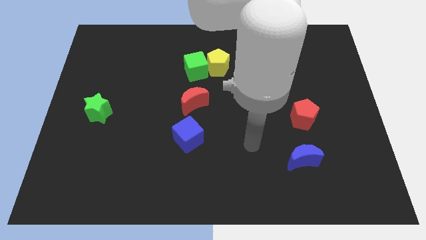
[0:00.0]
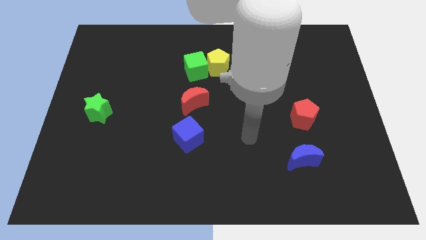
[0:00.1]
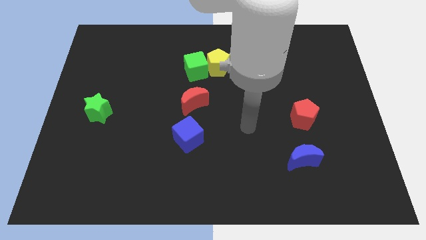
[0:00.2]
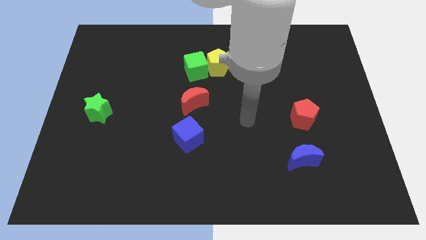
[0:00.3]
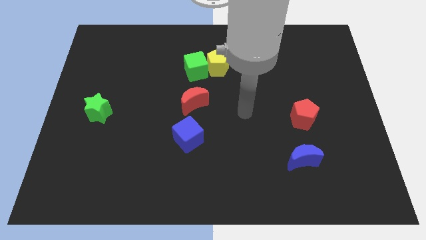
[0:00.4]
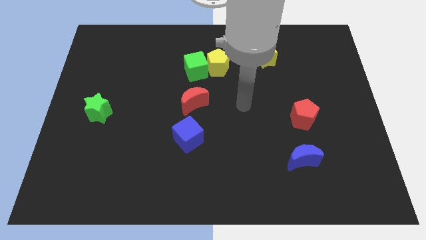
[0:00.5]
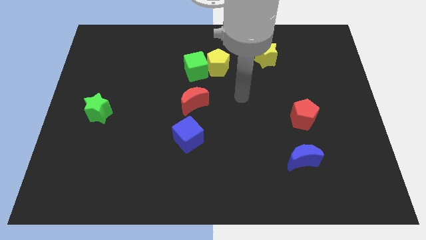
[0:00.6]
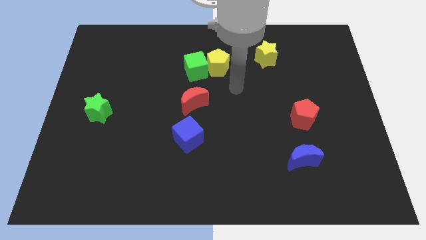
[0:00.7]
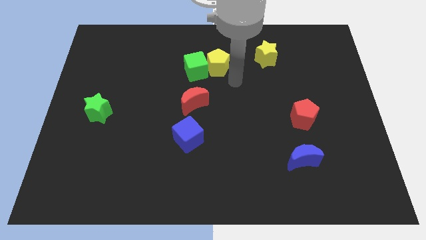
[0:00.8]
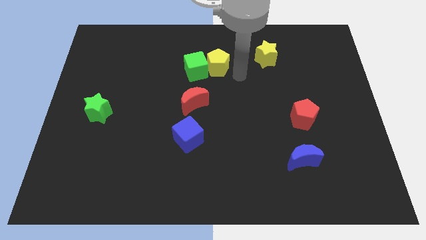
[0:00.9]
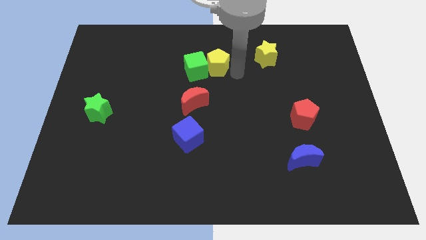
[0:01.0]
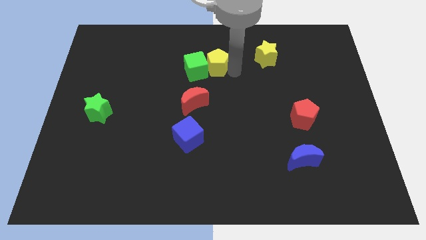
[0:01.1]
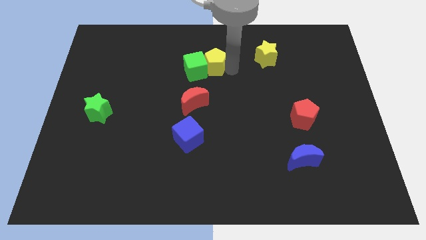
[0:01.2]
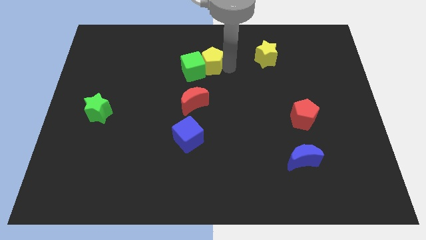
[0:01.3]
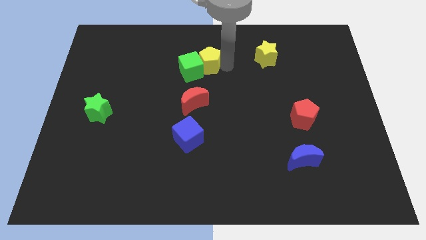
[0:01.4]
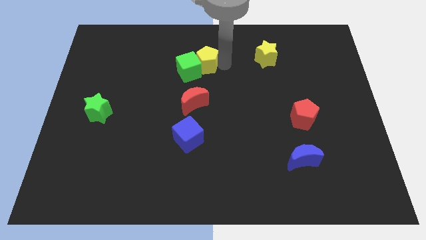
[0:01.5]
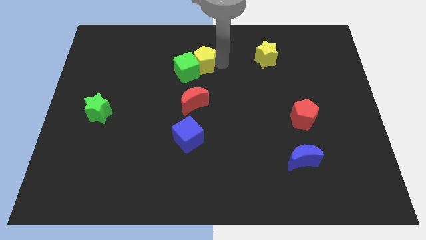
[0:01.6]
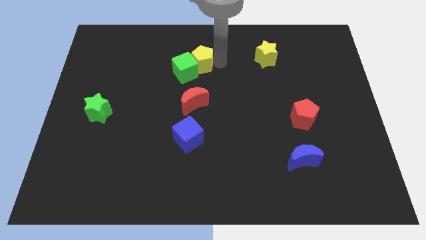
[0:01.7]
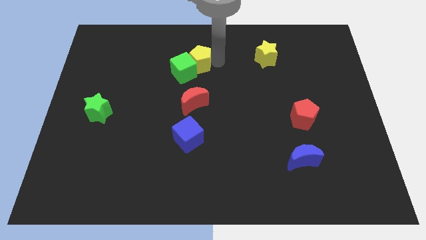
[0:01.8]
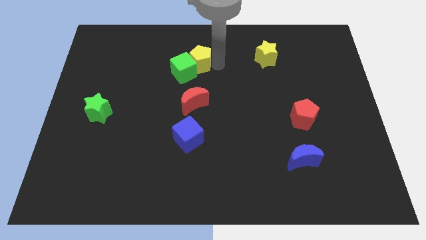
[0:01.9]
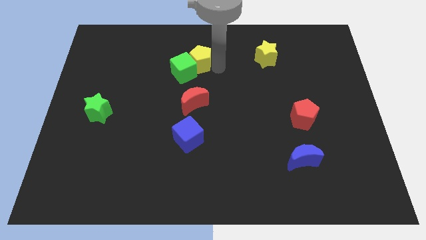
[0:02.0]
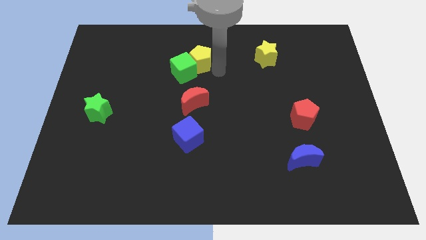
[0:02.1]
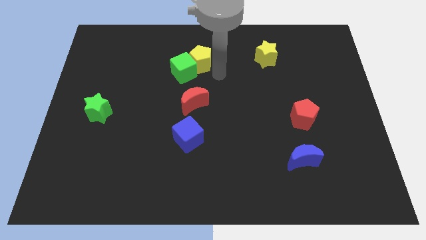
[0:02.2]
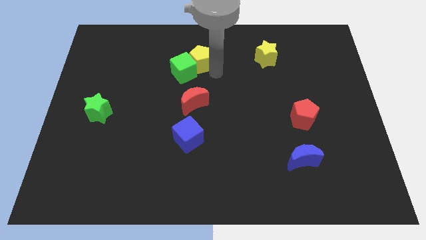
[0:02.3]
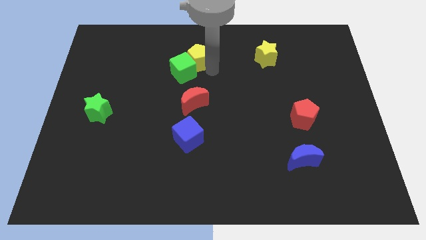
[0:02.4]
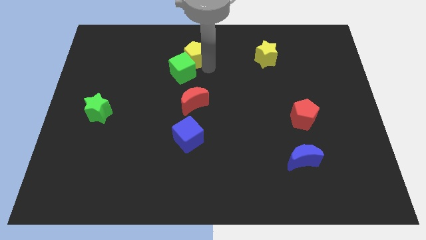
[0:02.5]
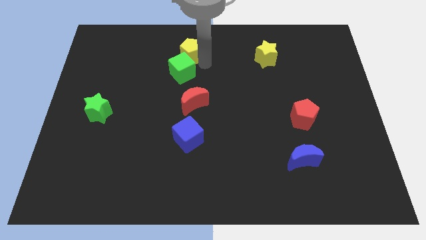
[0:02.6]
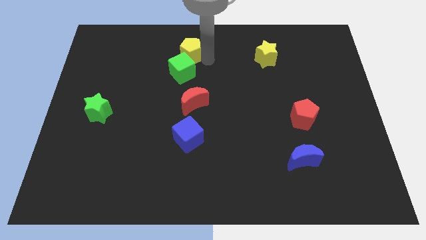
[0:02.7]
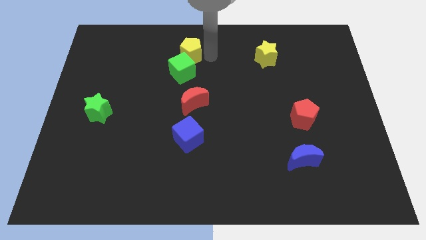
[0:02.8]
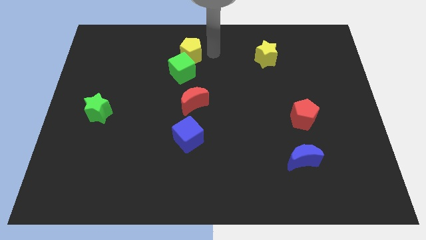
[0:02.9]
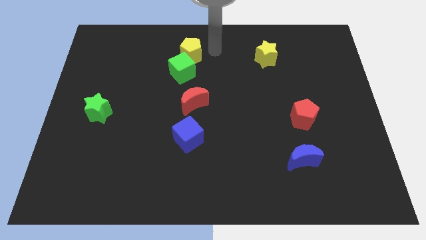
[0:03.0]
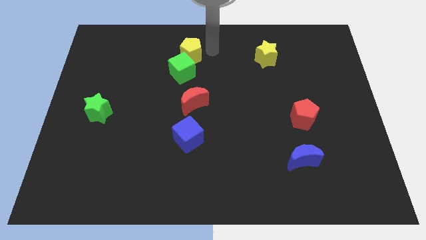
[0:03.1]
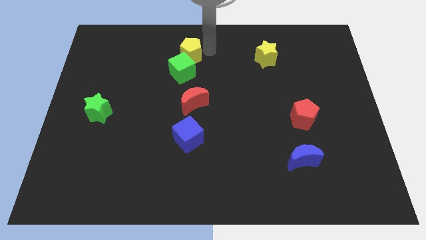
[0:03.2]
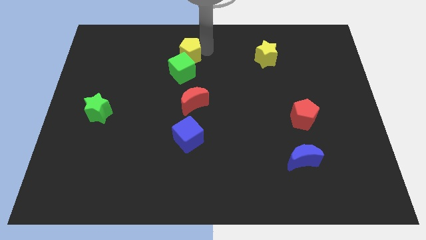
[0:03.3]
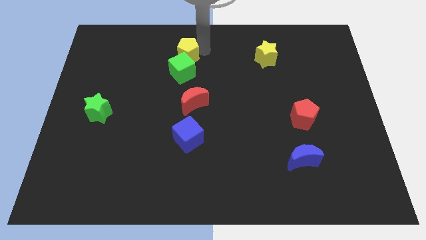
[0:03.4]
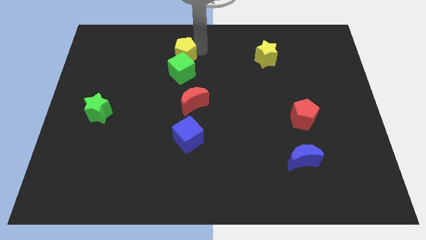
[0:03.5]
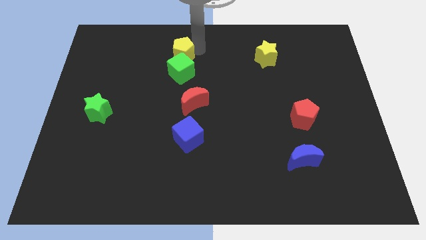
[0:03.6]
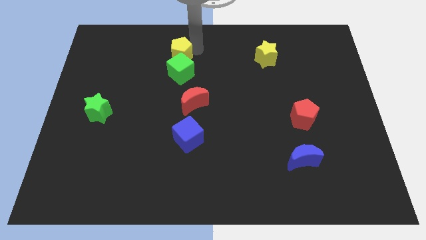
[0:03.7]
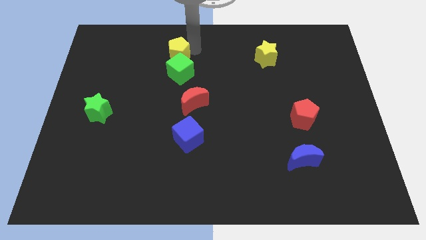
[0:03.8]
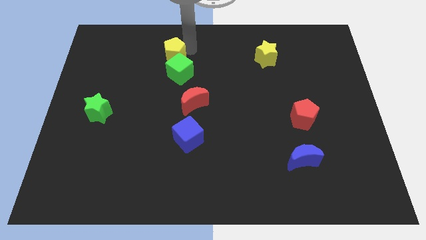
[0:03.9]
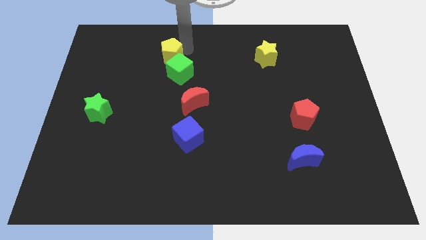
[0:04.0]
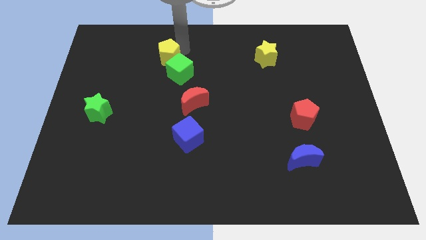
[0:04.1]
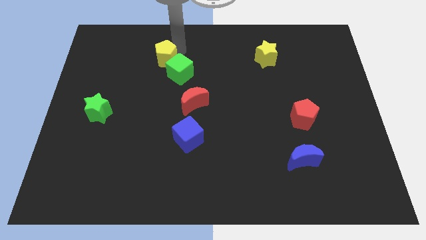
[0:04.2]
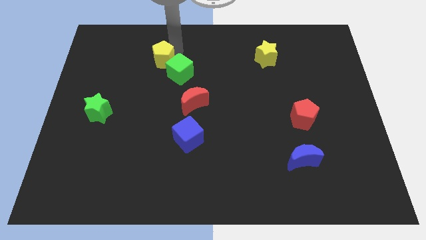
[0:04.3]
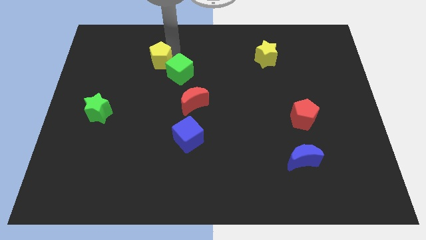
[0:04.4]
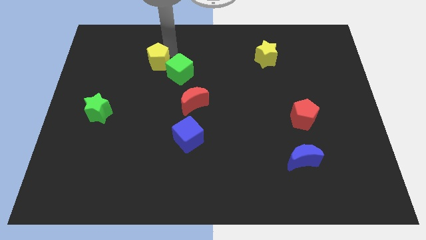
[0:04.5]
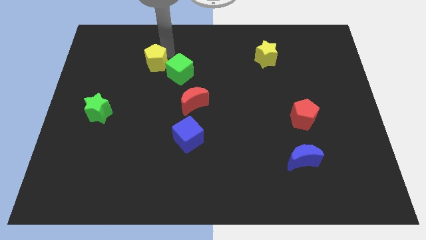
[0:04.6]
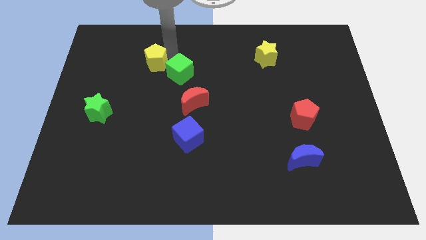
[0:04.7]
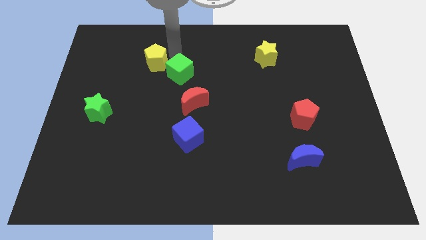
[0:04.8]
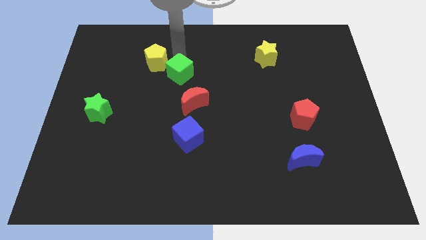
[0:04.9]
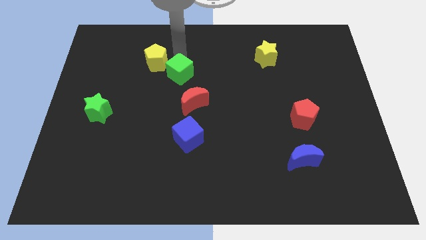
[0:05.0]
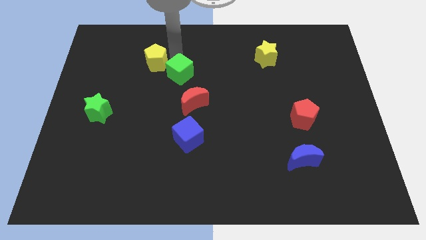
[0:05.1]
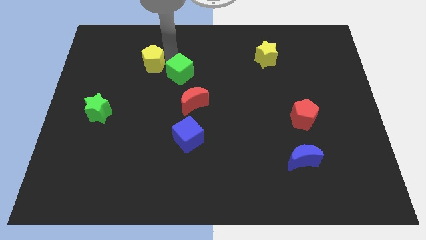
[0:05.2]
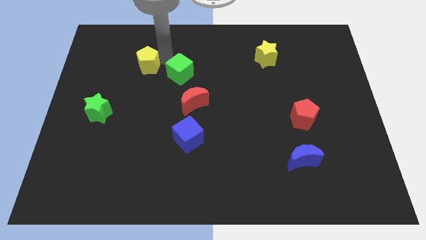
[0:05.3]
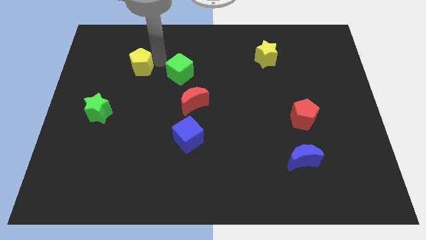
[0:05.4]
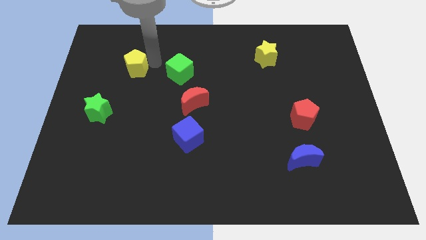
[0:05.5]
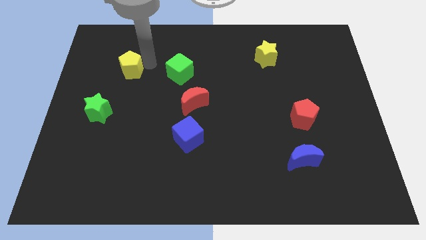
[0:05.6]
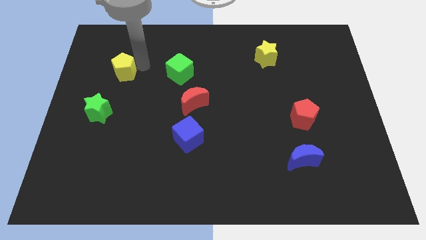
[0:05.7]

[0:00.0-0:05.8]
push the yellow pentagon above the green star

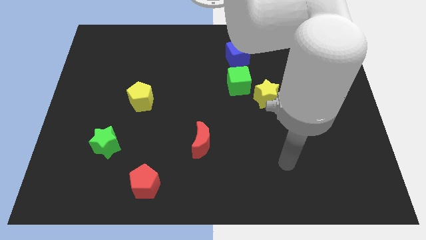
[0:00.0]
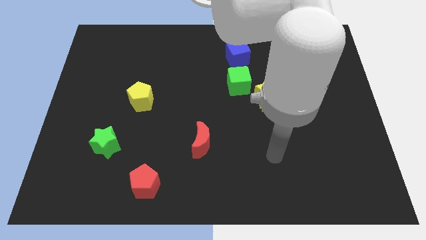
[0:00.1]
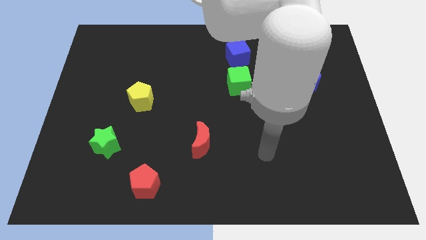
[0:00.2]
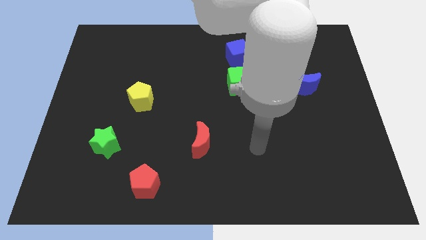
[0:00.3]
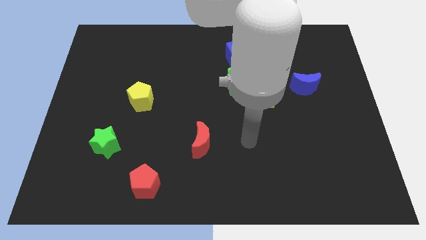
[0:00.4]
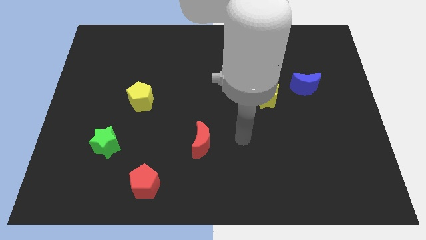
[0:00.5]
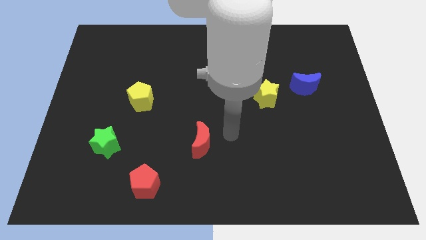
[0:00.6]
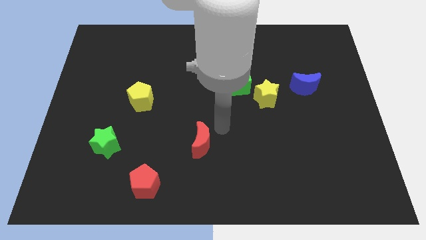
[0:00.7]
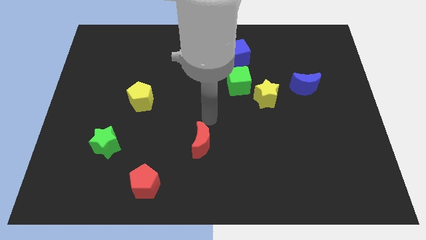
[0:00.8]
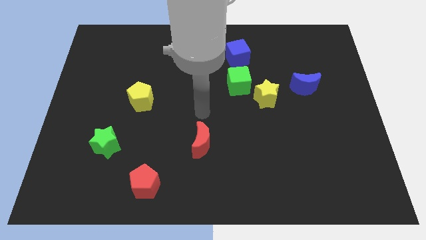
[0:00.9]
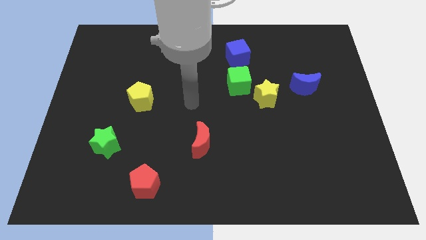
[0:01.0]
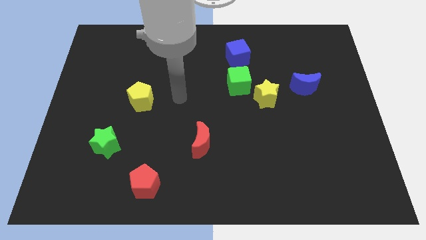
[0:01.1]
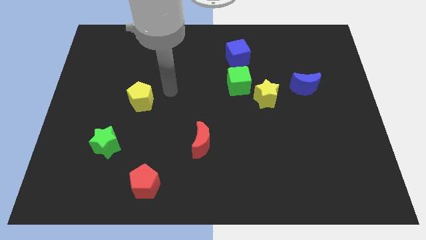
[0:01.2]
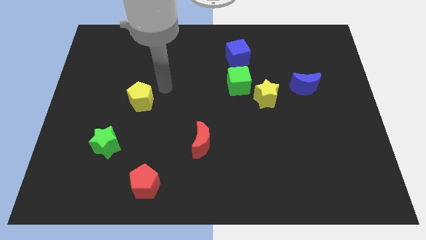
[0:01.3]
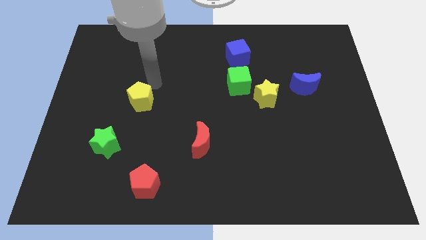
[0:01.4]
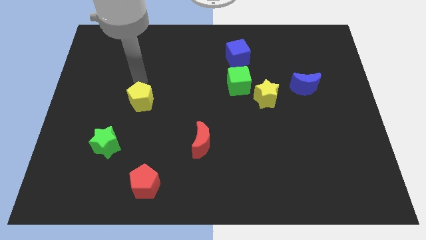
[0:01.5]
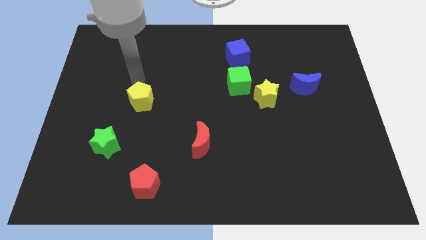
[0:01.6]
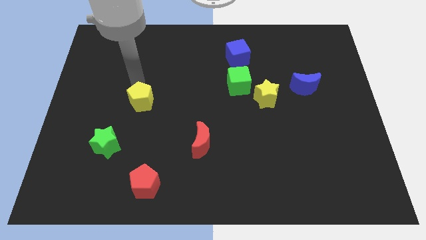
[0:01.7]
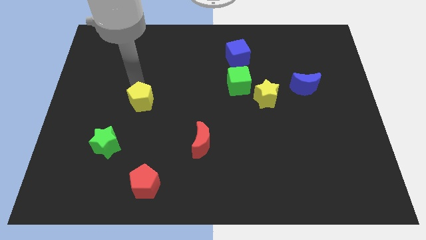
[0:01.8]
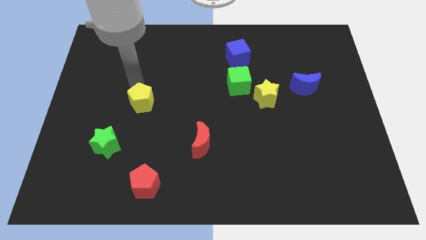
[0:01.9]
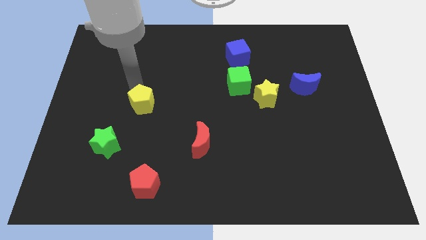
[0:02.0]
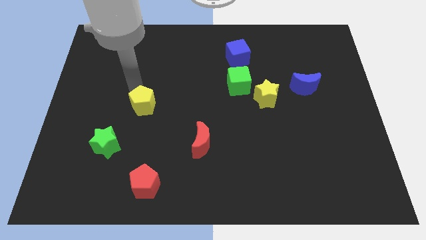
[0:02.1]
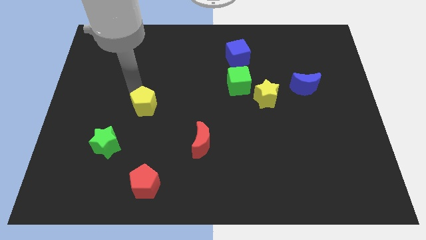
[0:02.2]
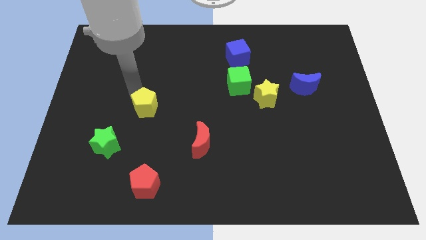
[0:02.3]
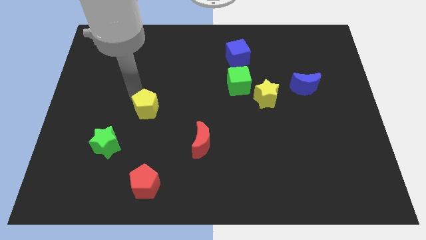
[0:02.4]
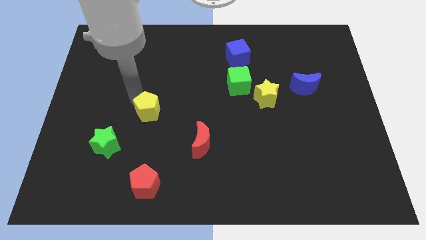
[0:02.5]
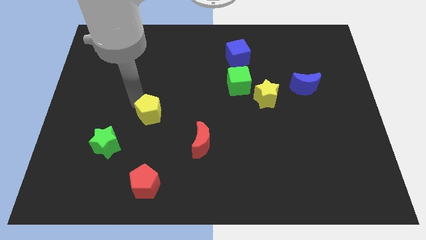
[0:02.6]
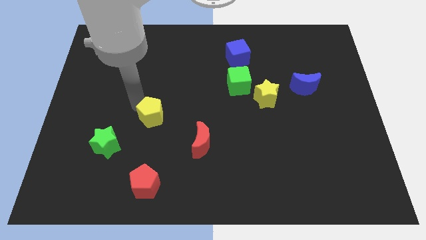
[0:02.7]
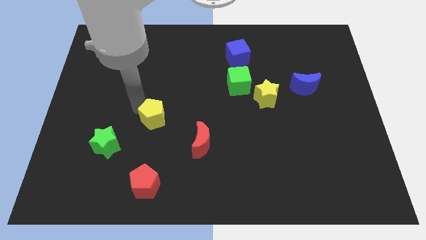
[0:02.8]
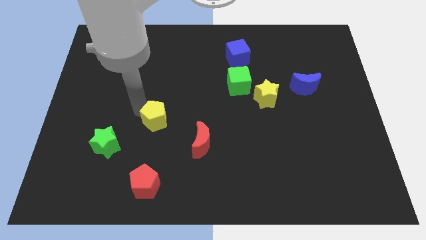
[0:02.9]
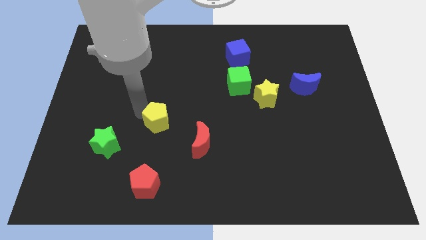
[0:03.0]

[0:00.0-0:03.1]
move the yellow pentagon to the top side of the red pentagon
